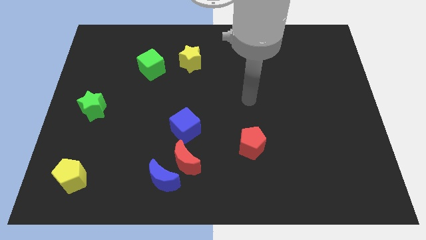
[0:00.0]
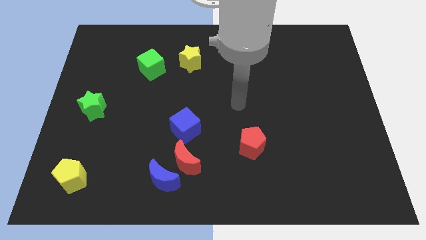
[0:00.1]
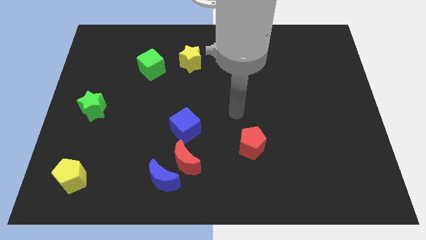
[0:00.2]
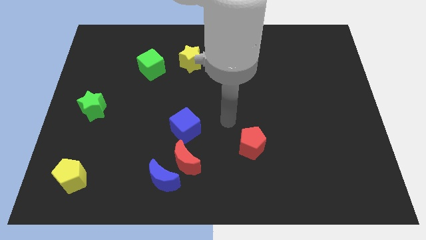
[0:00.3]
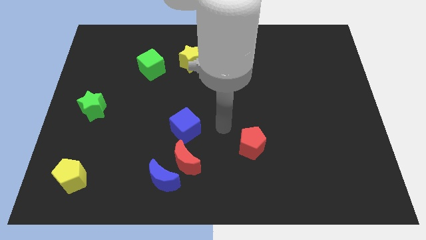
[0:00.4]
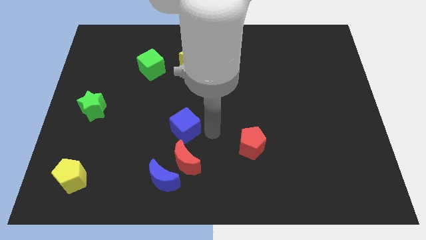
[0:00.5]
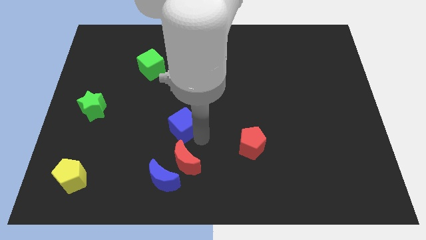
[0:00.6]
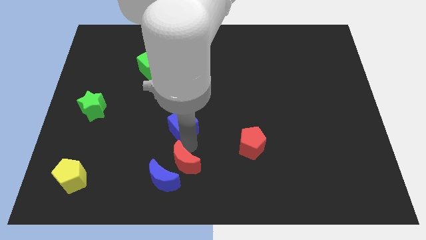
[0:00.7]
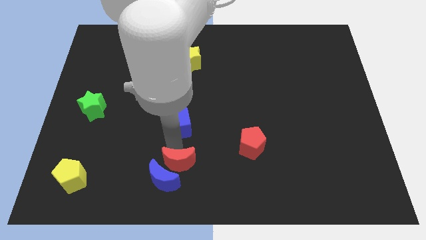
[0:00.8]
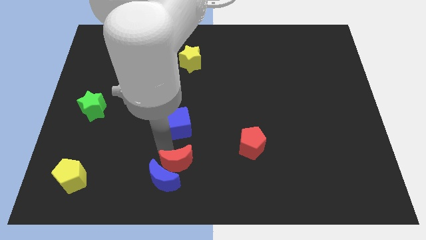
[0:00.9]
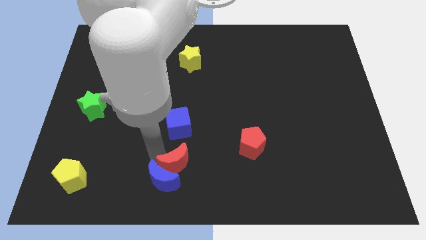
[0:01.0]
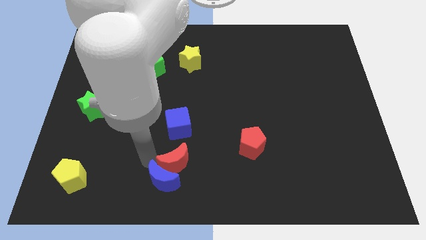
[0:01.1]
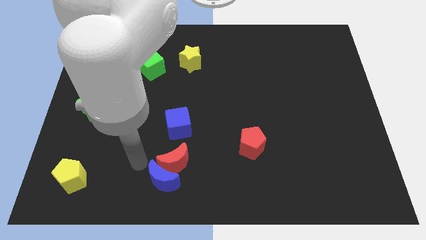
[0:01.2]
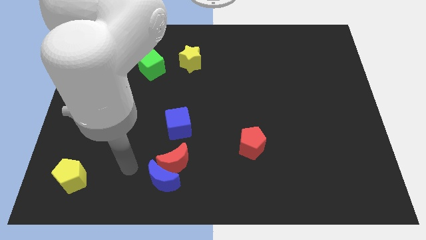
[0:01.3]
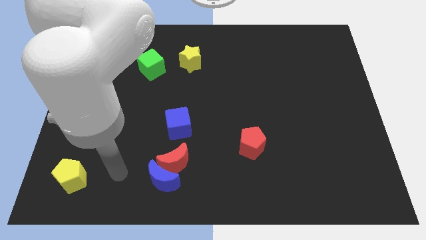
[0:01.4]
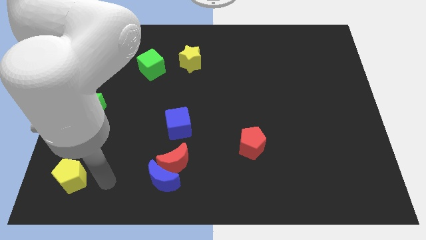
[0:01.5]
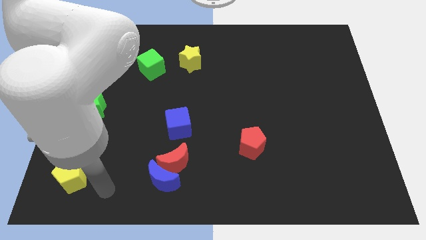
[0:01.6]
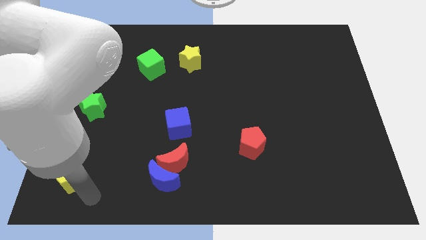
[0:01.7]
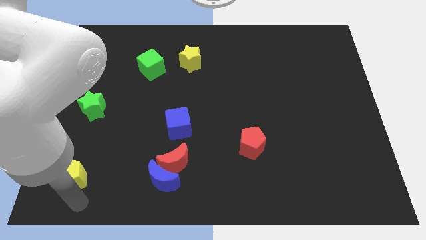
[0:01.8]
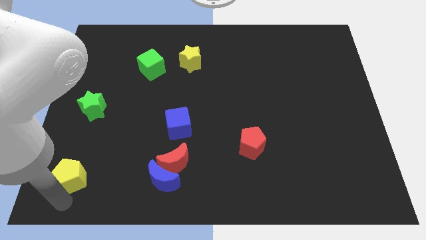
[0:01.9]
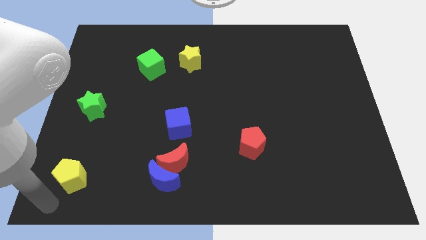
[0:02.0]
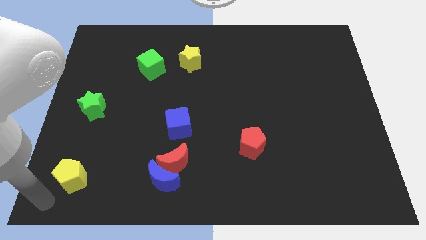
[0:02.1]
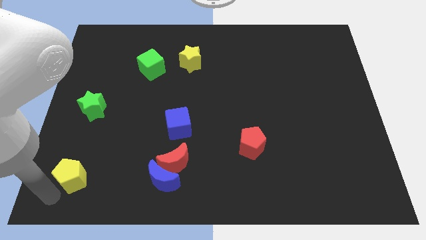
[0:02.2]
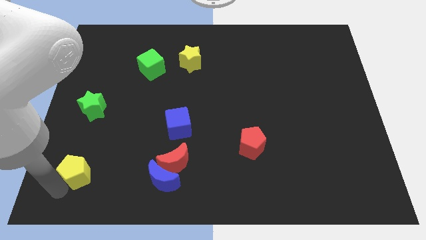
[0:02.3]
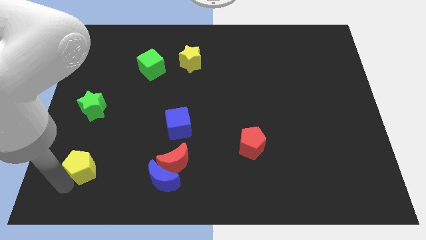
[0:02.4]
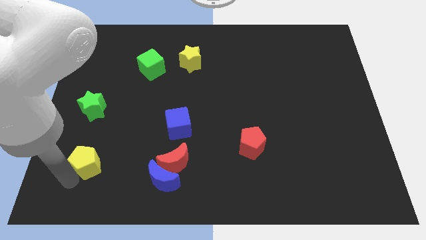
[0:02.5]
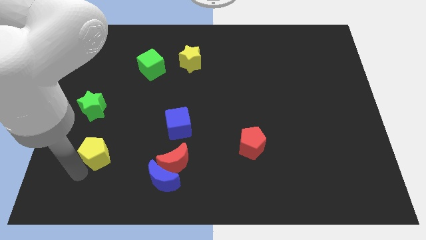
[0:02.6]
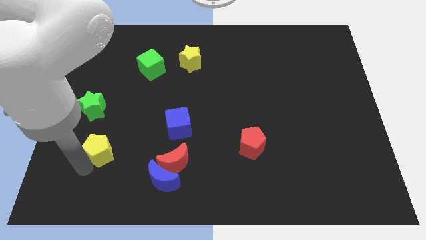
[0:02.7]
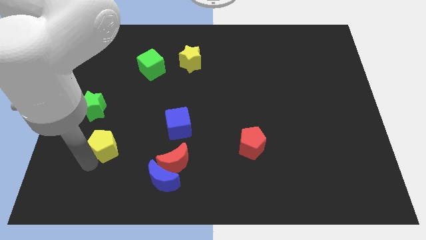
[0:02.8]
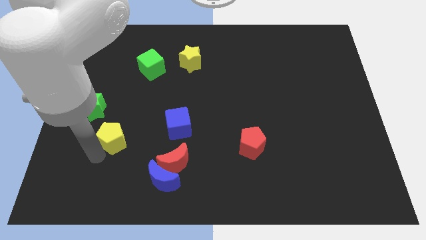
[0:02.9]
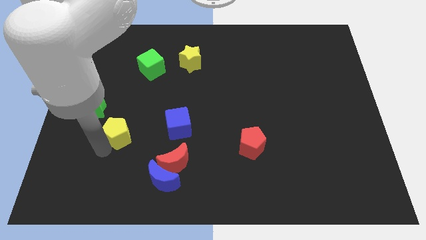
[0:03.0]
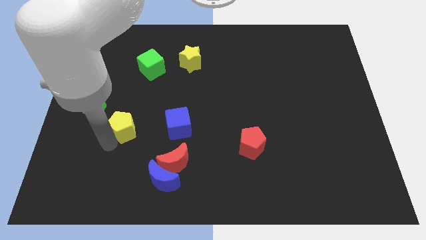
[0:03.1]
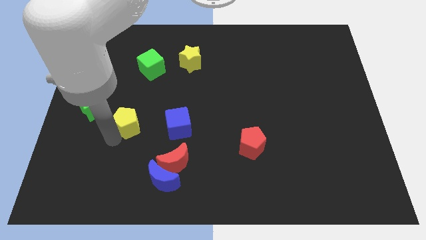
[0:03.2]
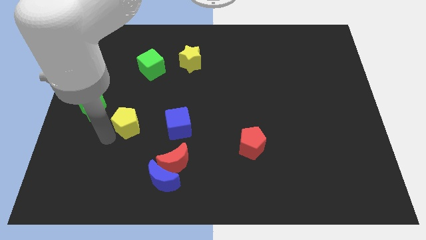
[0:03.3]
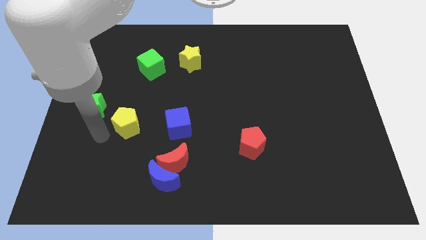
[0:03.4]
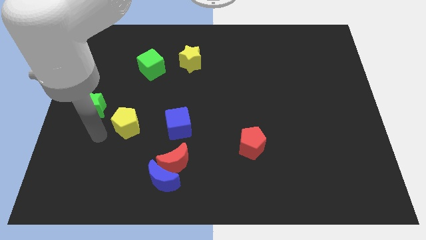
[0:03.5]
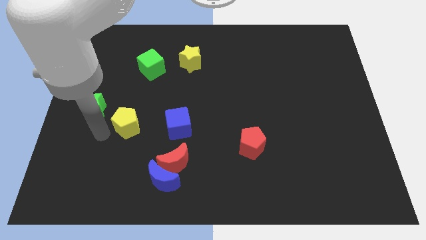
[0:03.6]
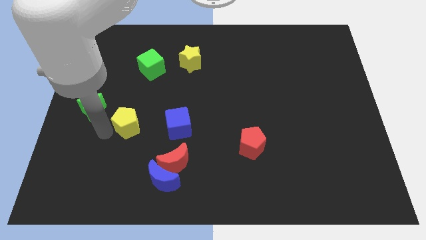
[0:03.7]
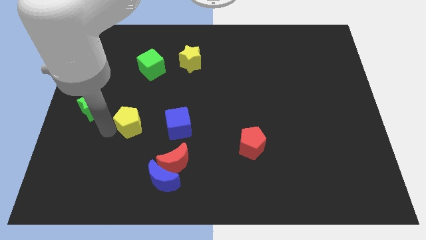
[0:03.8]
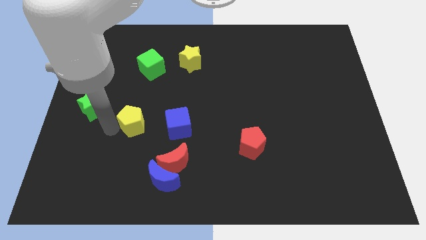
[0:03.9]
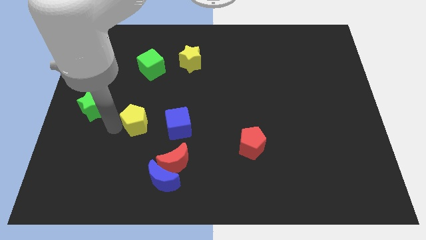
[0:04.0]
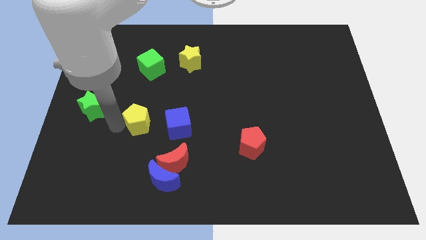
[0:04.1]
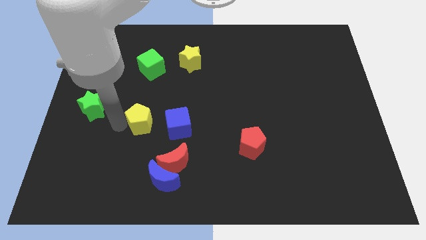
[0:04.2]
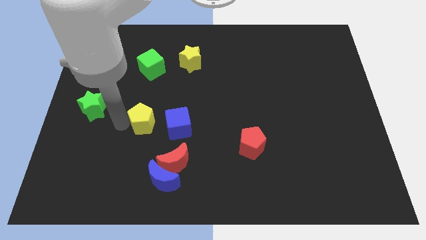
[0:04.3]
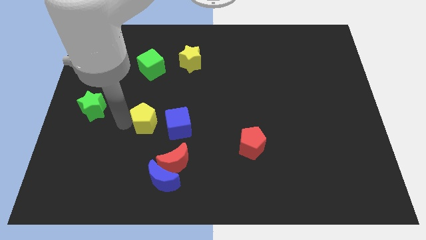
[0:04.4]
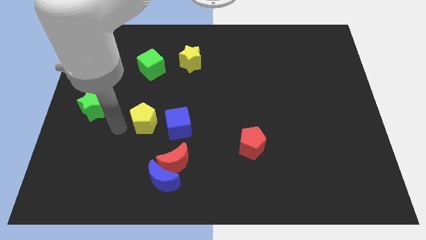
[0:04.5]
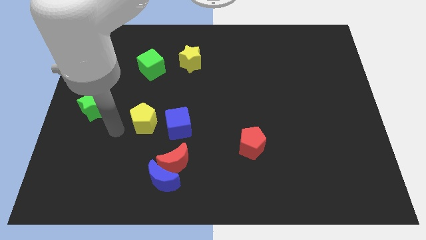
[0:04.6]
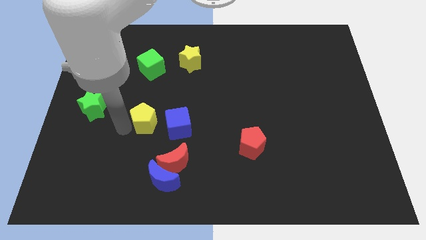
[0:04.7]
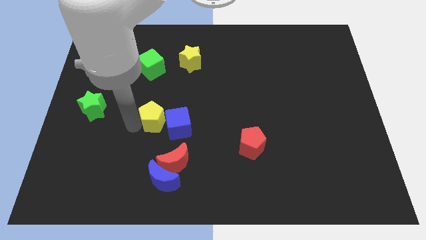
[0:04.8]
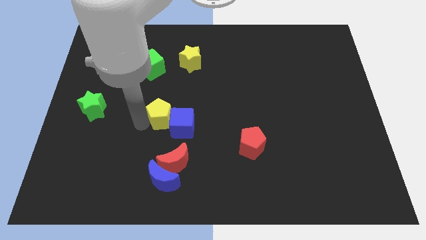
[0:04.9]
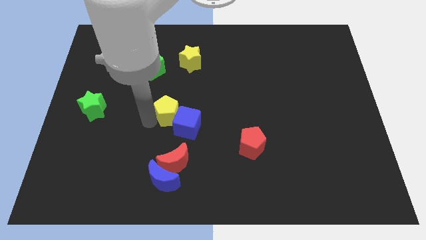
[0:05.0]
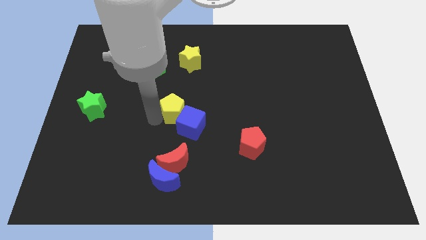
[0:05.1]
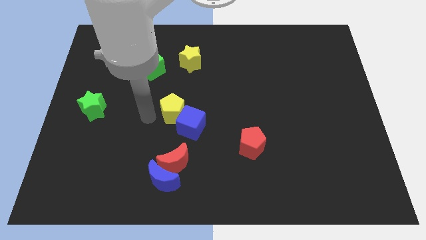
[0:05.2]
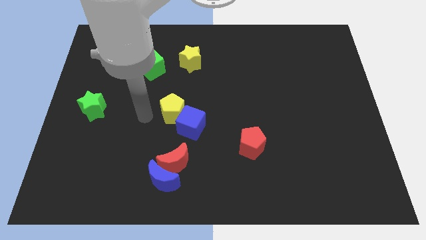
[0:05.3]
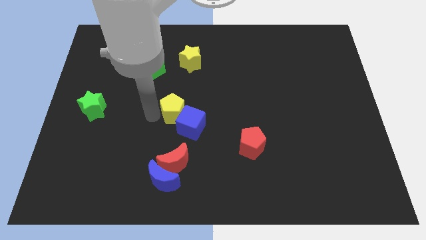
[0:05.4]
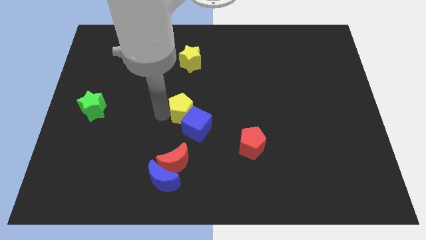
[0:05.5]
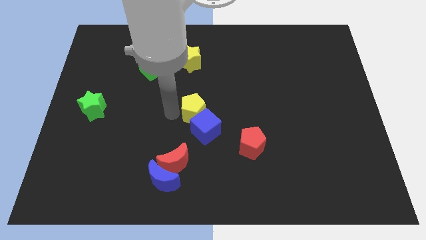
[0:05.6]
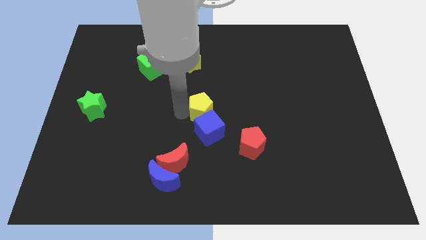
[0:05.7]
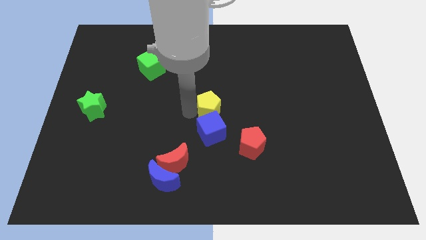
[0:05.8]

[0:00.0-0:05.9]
move the yellow pentagon to the top right side of the blue cube

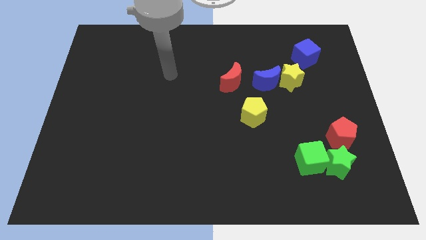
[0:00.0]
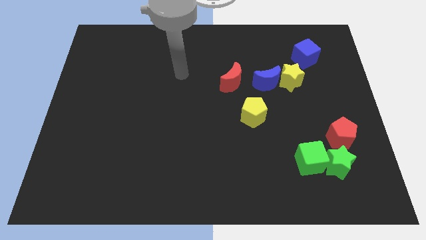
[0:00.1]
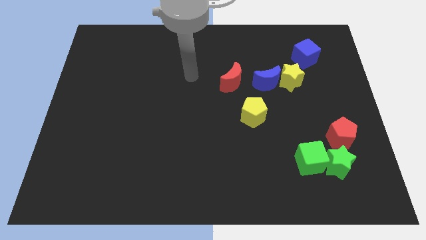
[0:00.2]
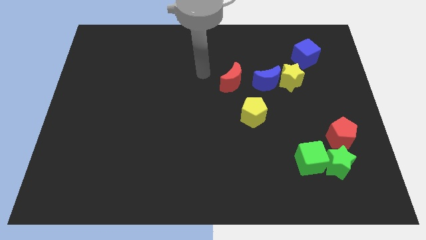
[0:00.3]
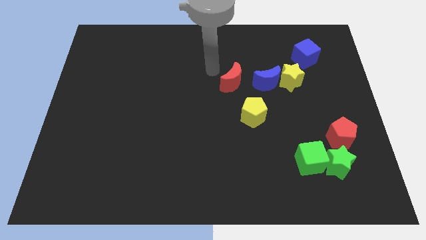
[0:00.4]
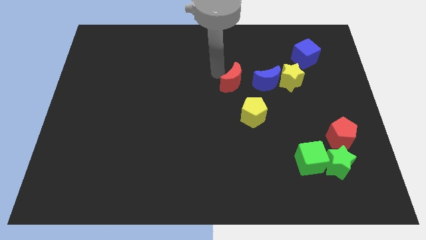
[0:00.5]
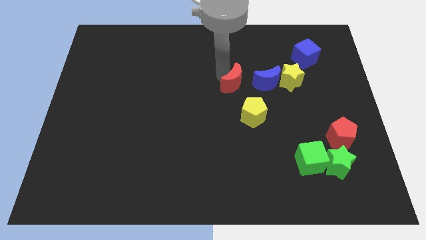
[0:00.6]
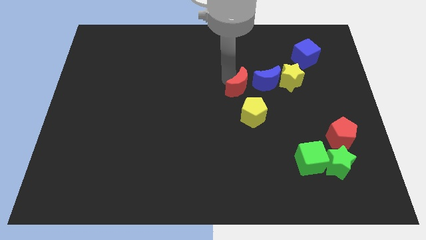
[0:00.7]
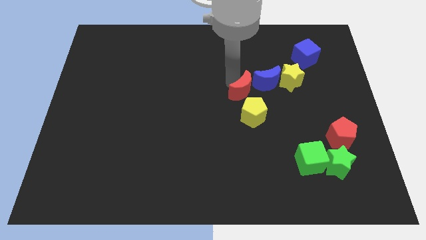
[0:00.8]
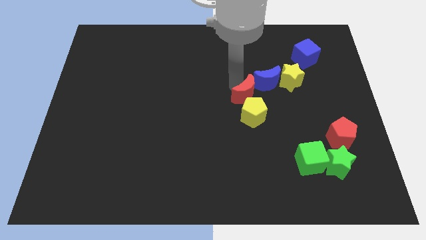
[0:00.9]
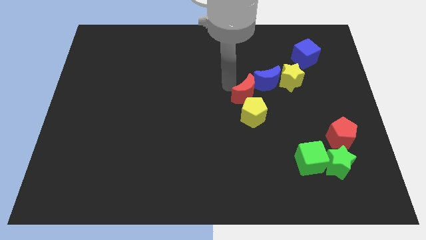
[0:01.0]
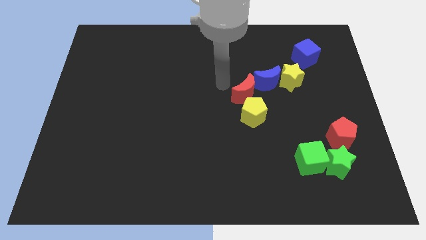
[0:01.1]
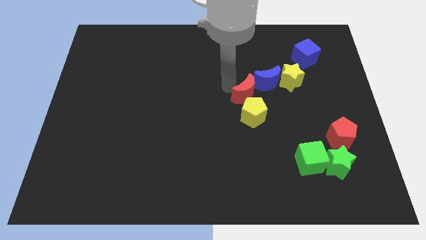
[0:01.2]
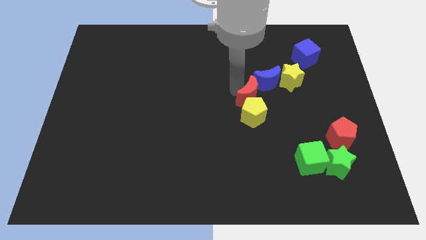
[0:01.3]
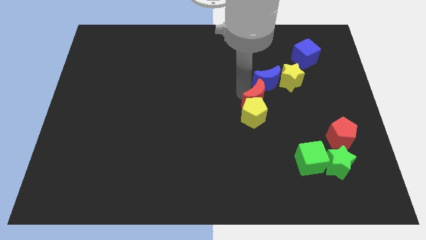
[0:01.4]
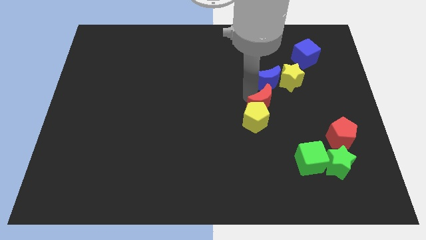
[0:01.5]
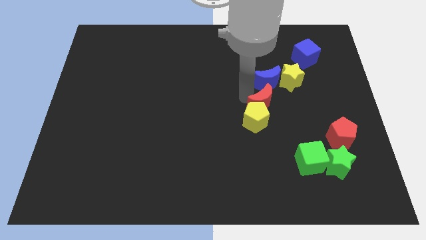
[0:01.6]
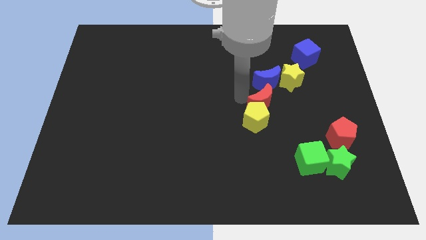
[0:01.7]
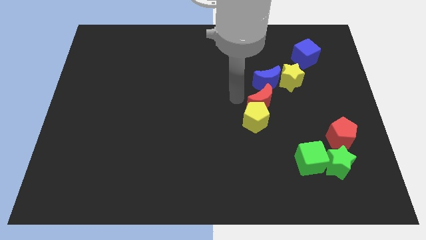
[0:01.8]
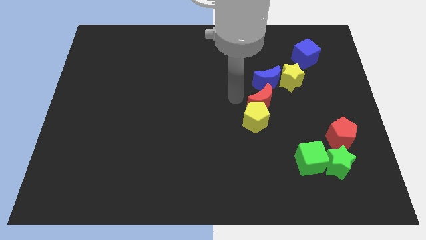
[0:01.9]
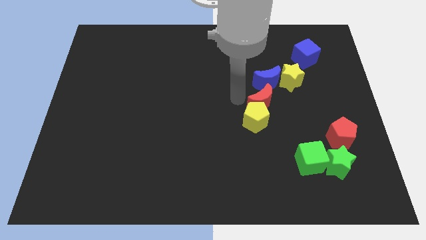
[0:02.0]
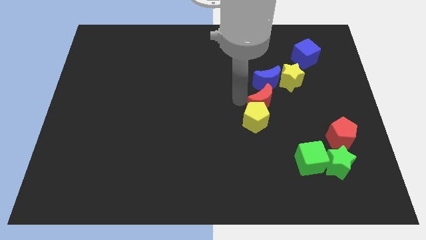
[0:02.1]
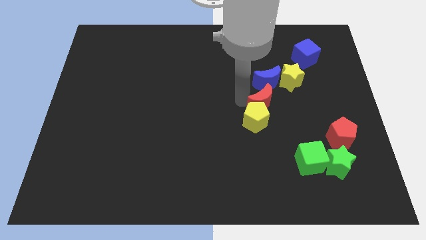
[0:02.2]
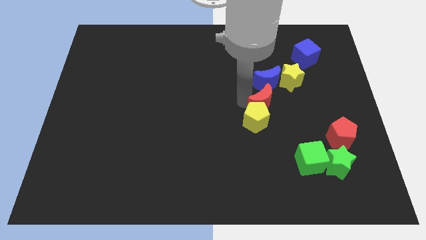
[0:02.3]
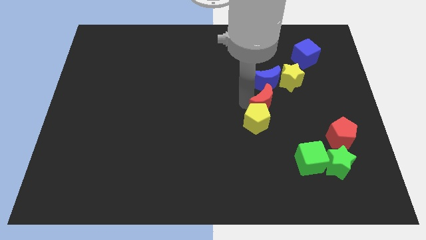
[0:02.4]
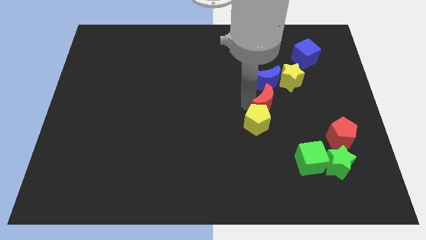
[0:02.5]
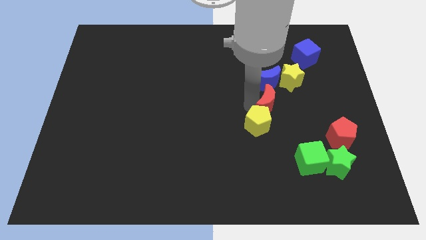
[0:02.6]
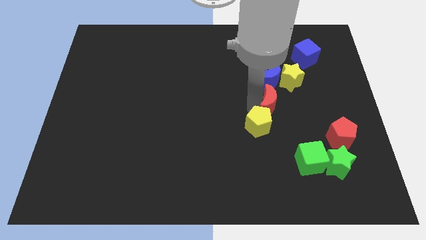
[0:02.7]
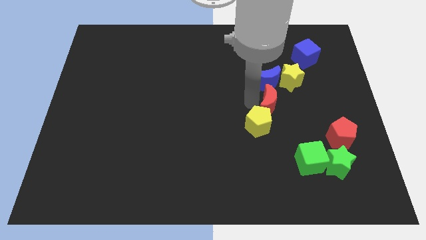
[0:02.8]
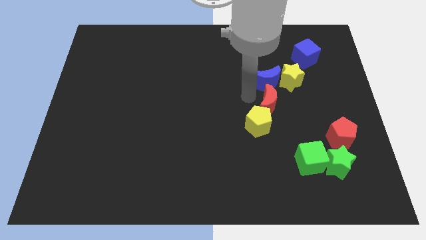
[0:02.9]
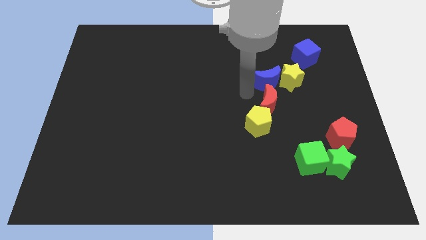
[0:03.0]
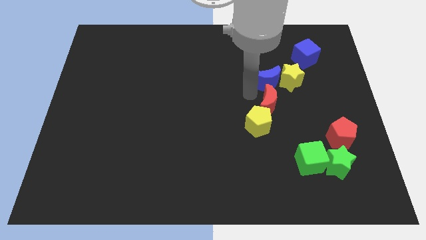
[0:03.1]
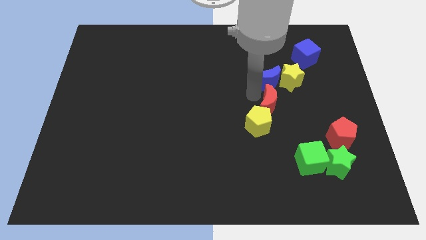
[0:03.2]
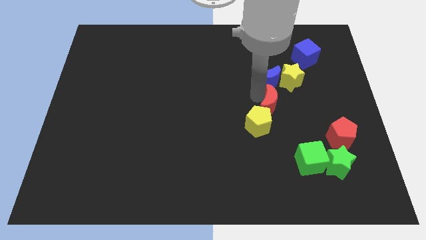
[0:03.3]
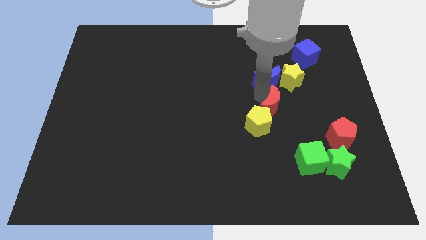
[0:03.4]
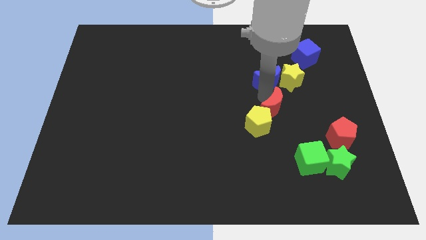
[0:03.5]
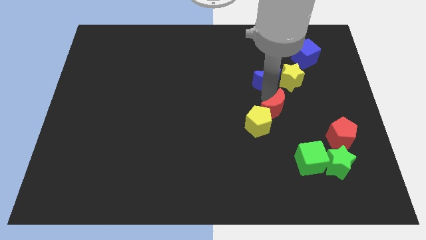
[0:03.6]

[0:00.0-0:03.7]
push the red moon right of the yellow pentagon
